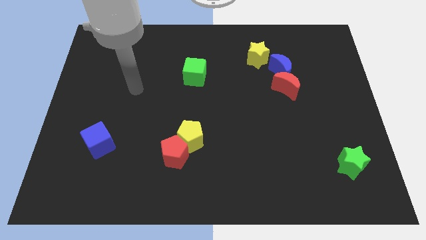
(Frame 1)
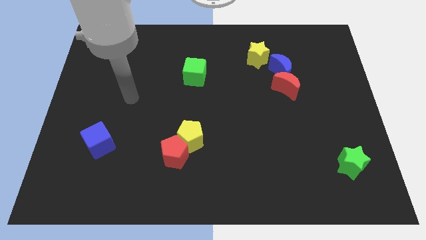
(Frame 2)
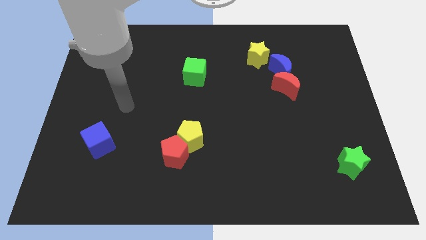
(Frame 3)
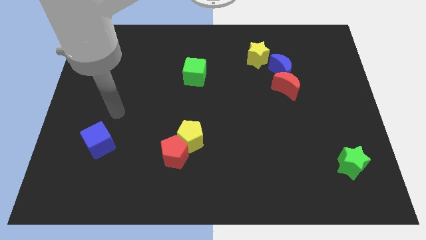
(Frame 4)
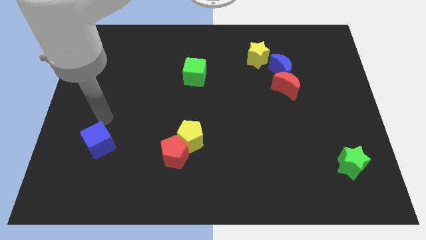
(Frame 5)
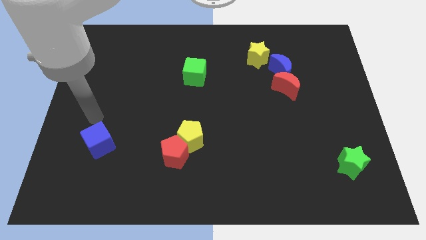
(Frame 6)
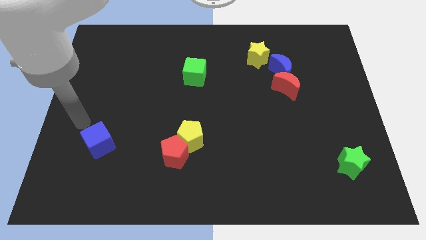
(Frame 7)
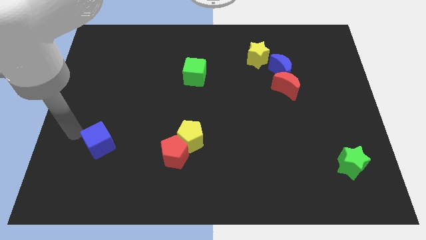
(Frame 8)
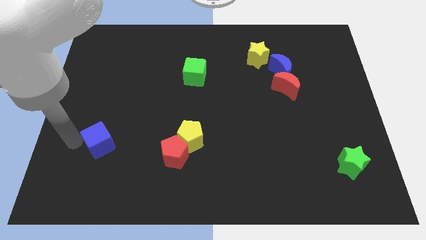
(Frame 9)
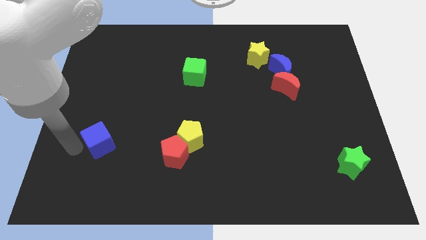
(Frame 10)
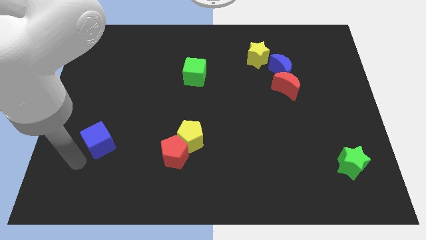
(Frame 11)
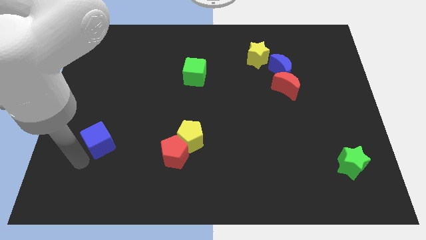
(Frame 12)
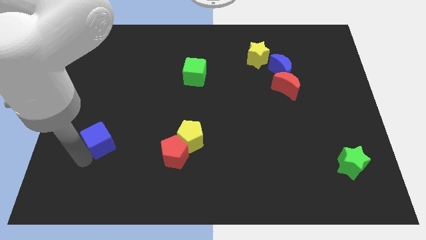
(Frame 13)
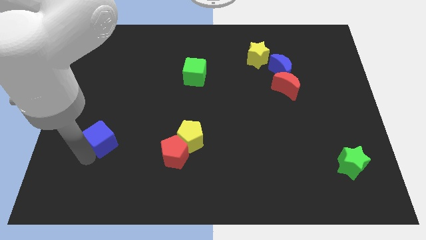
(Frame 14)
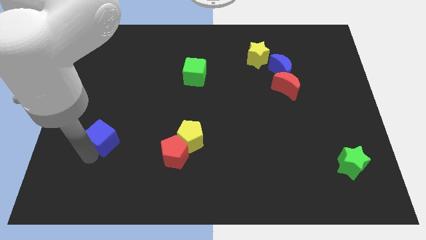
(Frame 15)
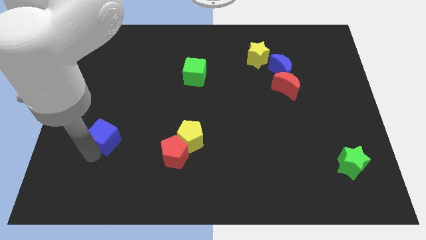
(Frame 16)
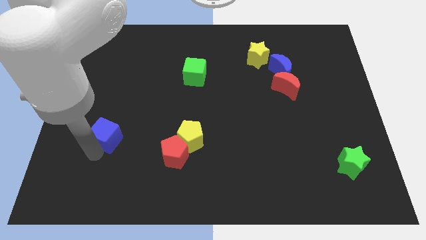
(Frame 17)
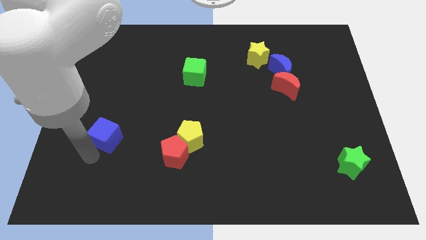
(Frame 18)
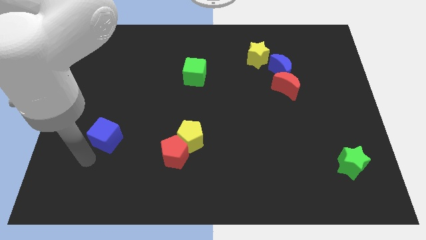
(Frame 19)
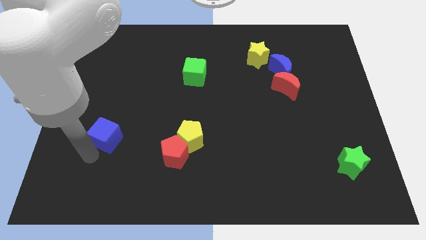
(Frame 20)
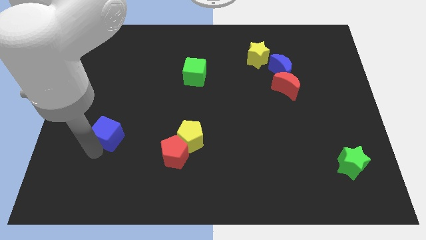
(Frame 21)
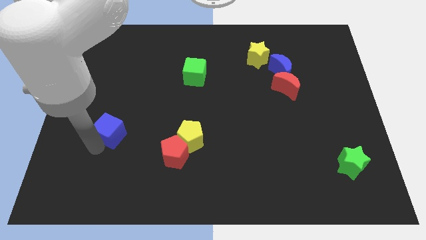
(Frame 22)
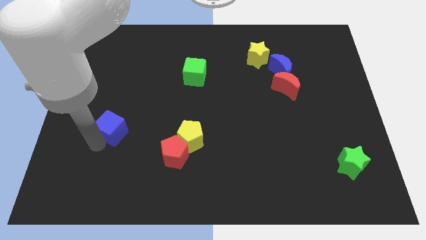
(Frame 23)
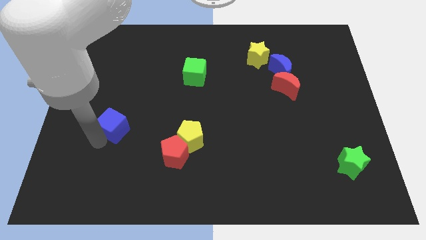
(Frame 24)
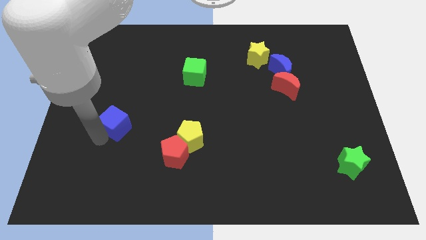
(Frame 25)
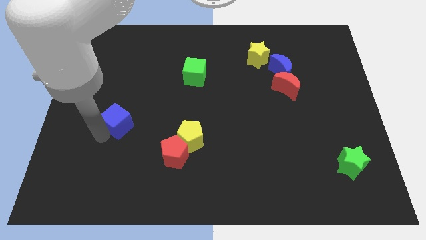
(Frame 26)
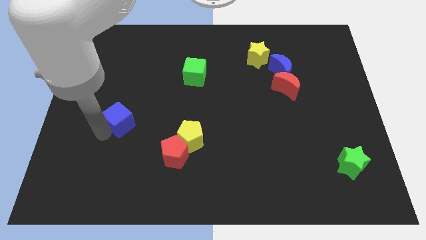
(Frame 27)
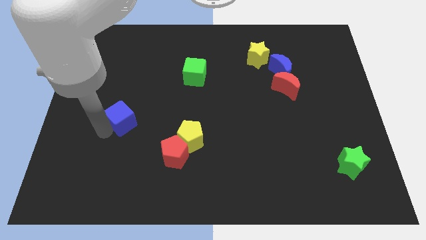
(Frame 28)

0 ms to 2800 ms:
slightly move the blue cube upwards and to the right

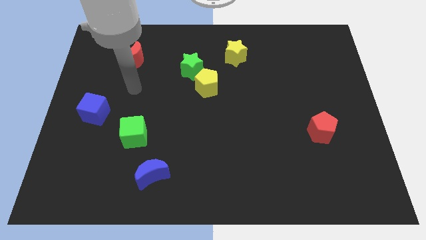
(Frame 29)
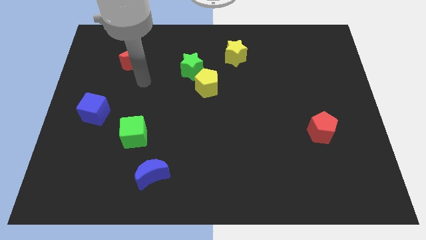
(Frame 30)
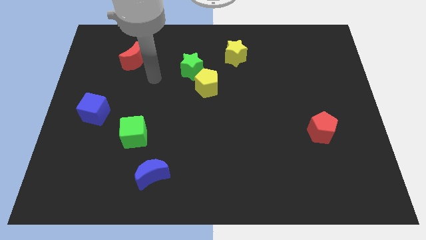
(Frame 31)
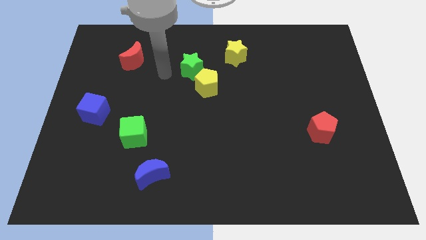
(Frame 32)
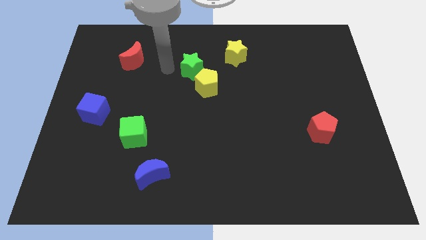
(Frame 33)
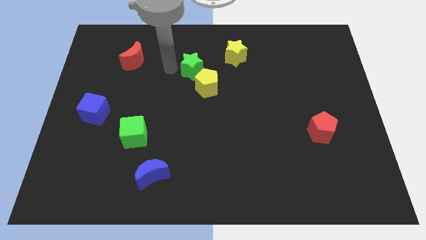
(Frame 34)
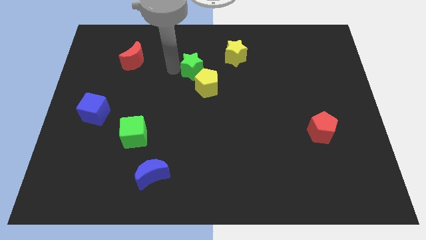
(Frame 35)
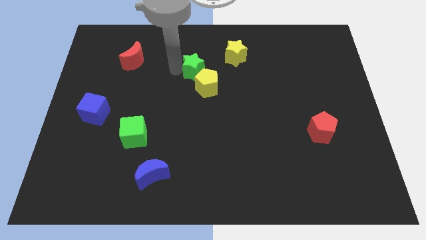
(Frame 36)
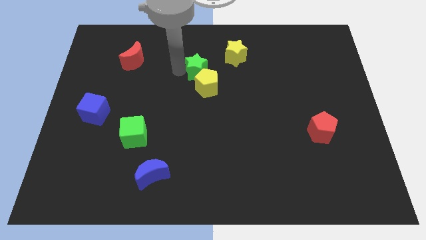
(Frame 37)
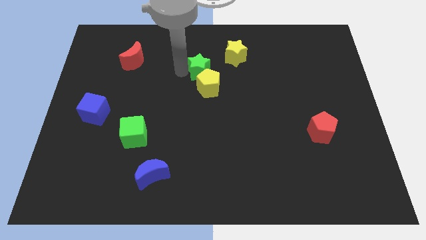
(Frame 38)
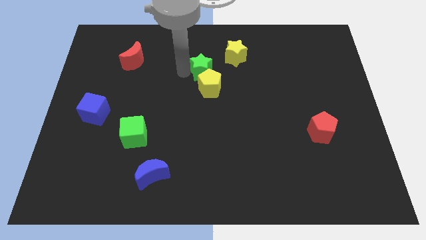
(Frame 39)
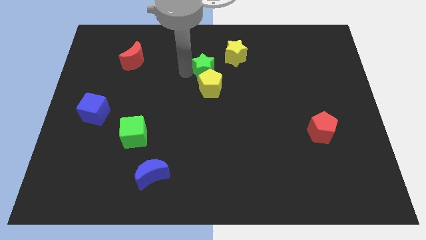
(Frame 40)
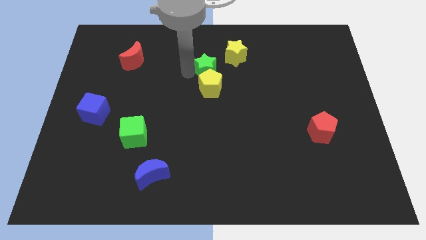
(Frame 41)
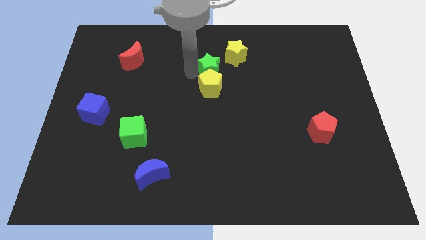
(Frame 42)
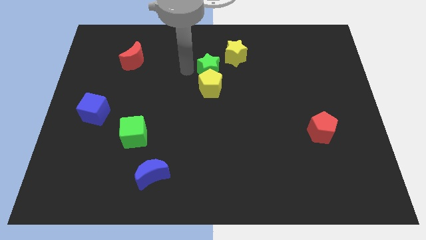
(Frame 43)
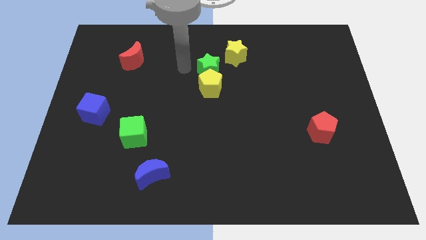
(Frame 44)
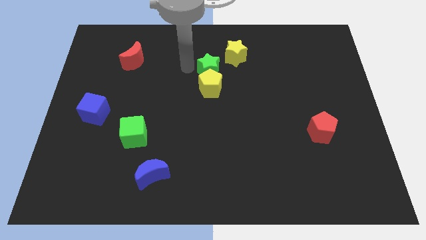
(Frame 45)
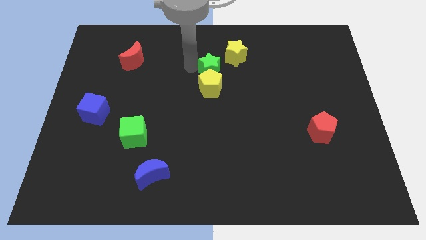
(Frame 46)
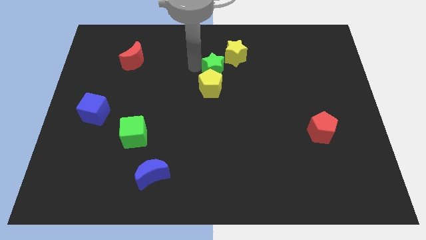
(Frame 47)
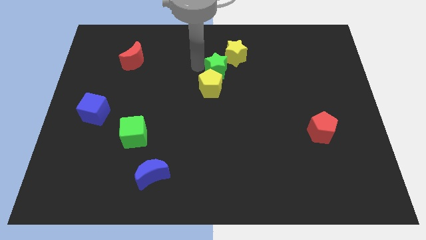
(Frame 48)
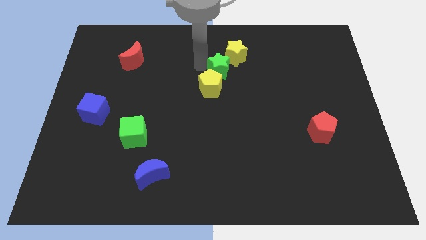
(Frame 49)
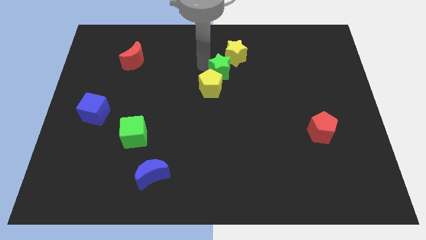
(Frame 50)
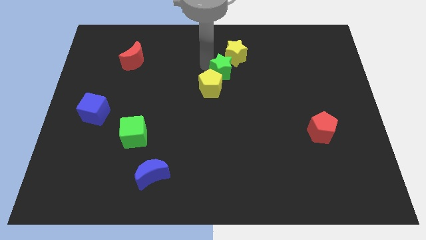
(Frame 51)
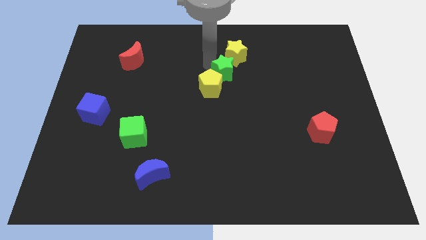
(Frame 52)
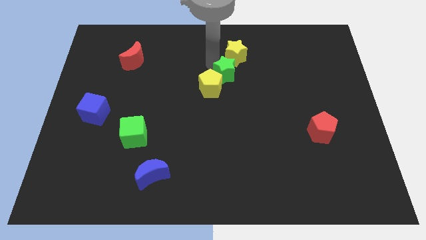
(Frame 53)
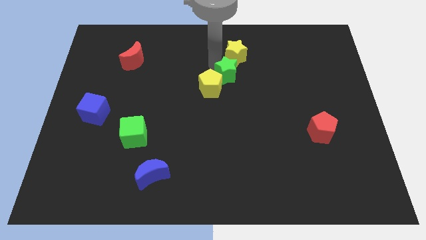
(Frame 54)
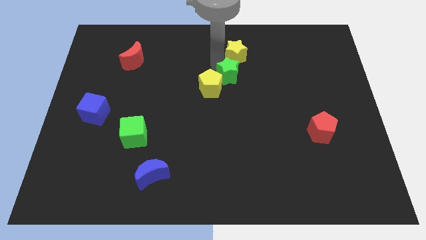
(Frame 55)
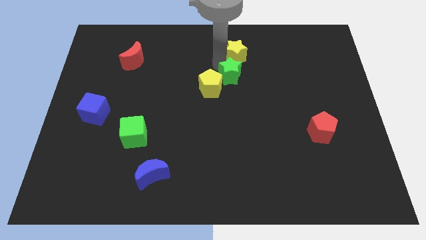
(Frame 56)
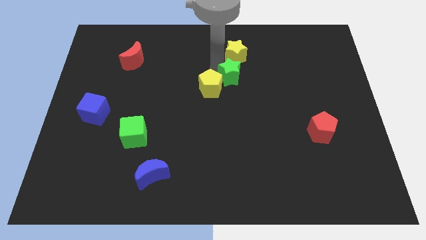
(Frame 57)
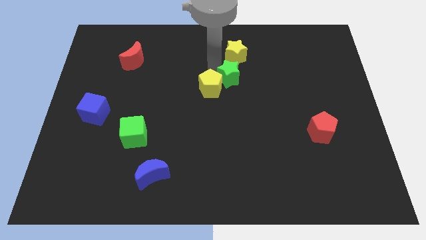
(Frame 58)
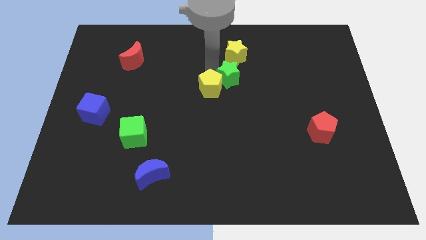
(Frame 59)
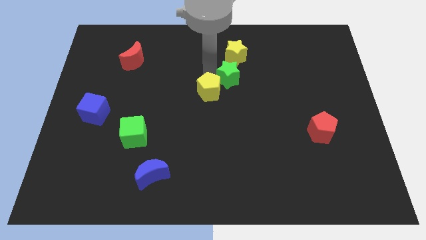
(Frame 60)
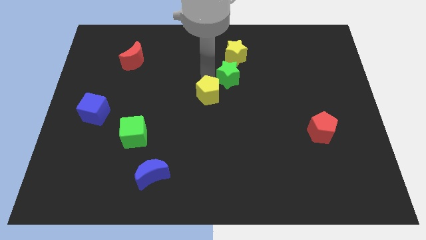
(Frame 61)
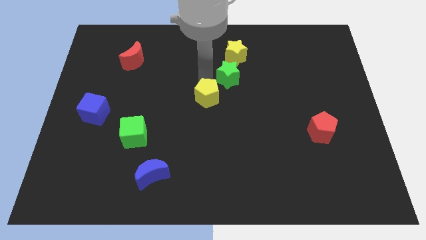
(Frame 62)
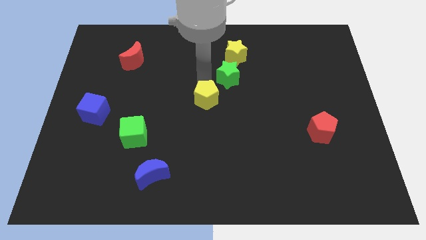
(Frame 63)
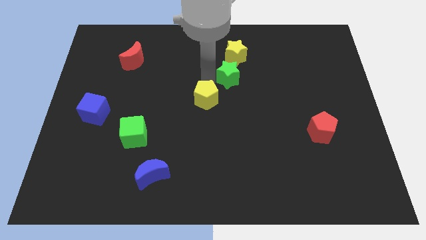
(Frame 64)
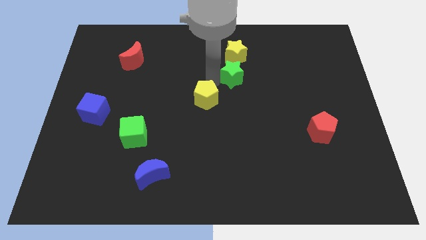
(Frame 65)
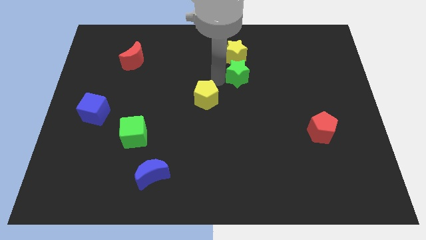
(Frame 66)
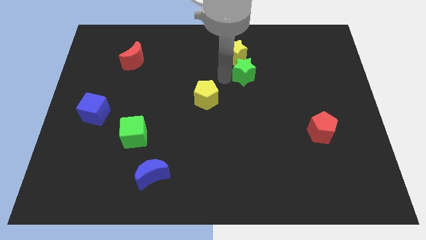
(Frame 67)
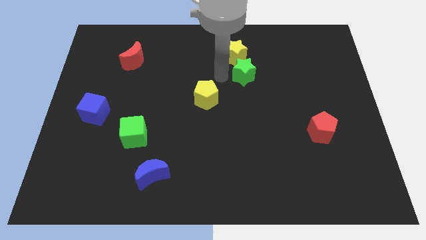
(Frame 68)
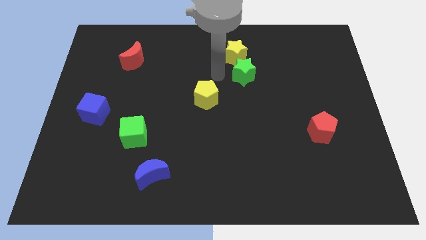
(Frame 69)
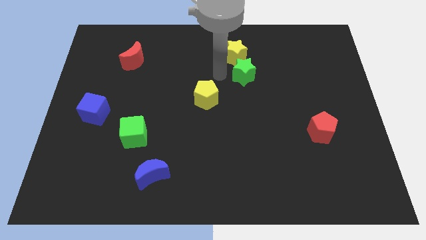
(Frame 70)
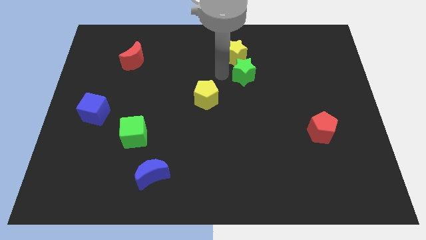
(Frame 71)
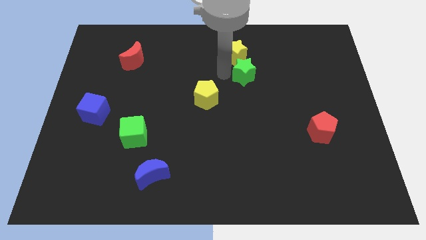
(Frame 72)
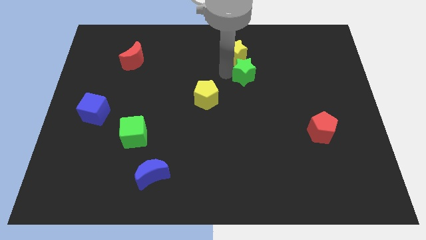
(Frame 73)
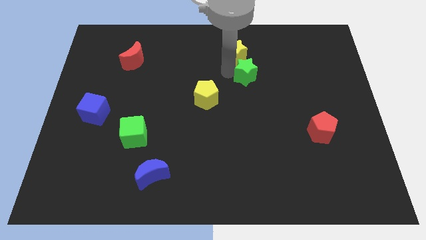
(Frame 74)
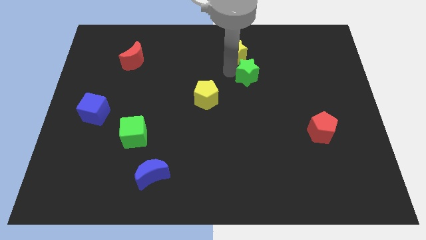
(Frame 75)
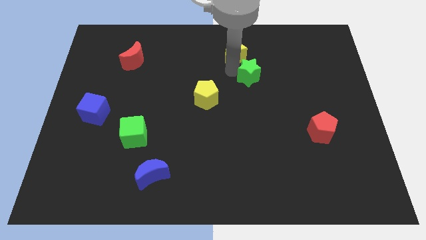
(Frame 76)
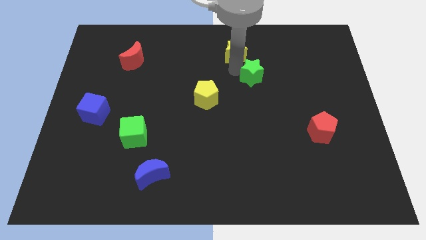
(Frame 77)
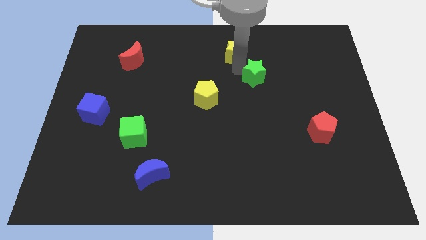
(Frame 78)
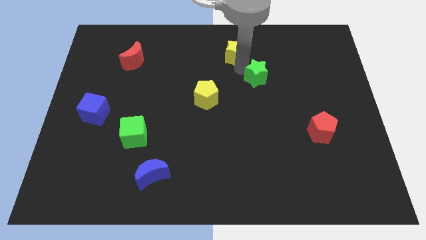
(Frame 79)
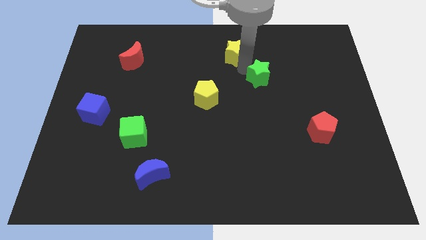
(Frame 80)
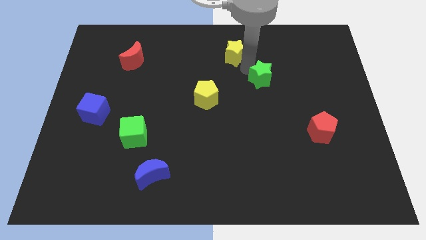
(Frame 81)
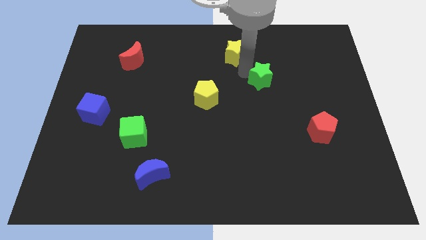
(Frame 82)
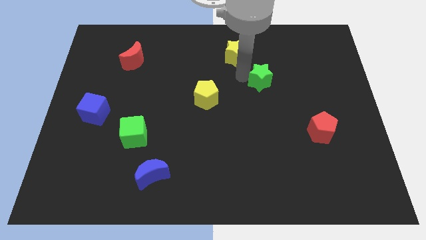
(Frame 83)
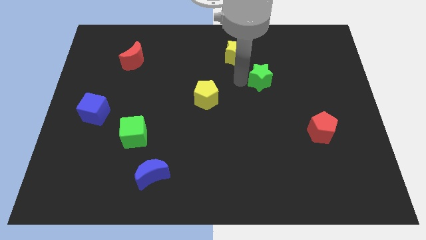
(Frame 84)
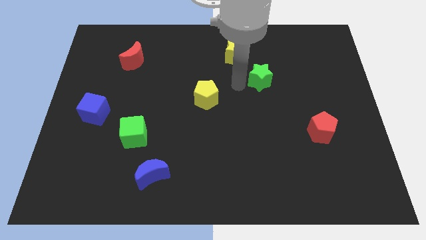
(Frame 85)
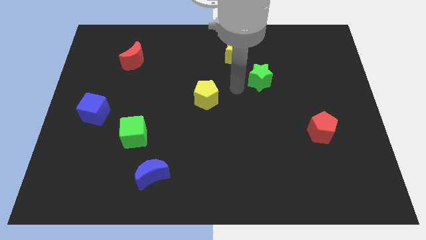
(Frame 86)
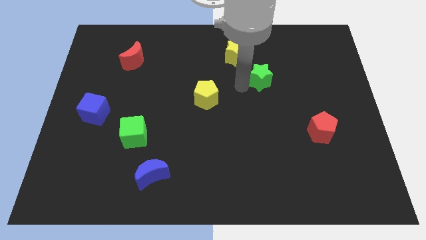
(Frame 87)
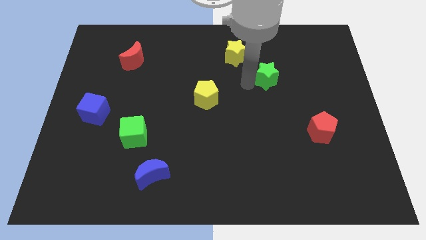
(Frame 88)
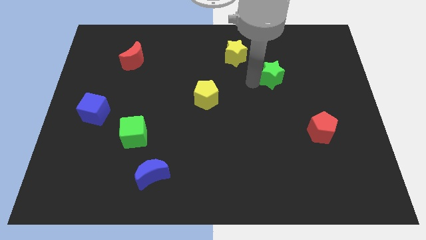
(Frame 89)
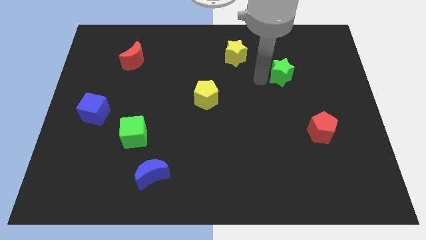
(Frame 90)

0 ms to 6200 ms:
slide the green star to the right
